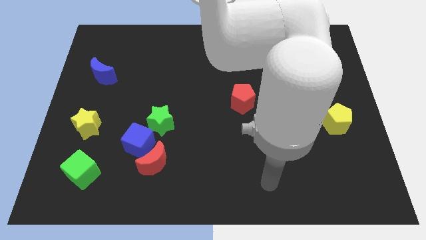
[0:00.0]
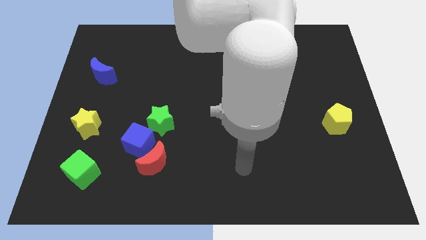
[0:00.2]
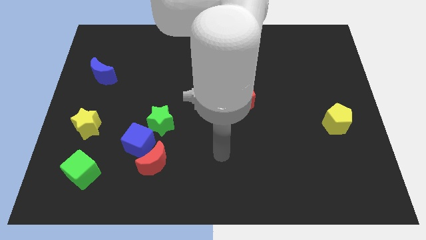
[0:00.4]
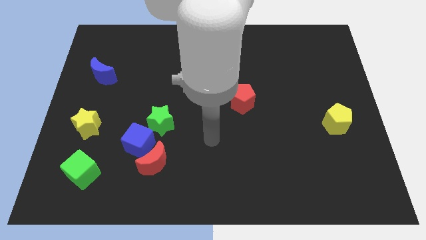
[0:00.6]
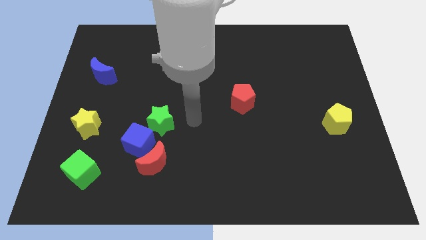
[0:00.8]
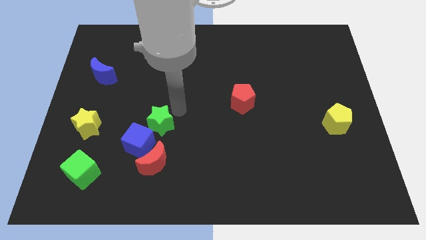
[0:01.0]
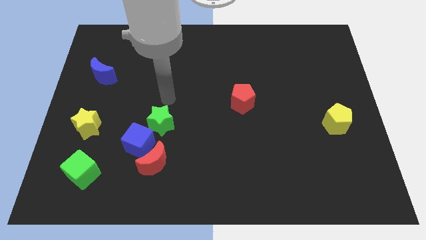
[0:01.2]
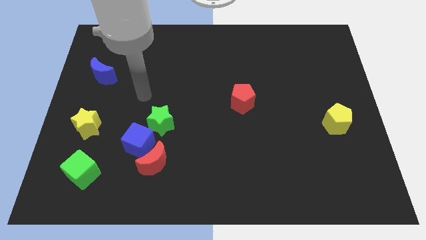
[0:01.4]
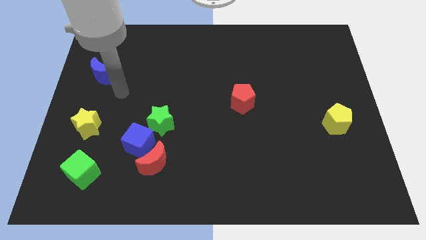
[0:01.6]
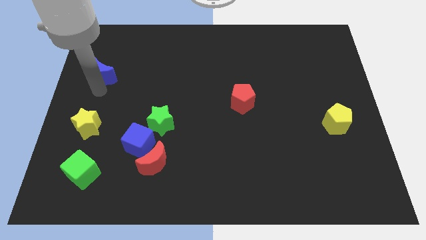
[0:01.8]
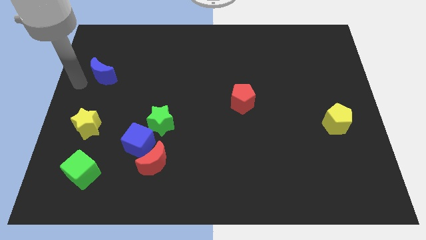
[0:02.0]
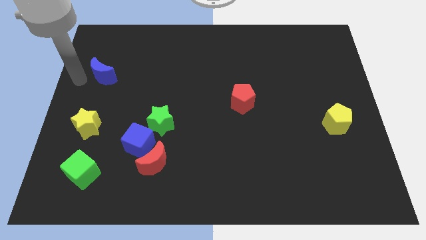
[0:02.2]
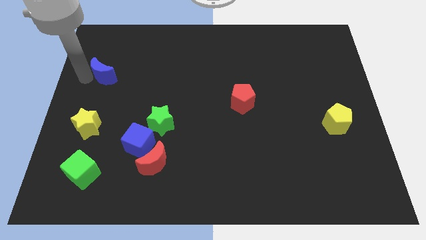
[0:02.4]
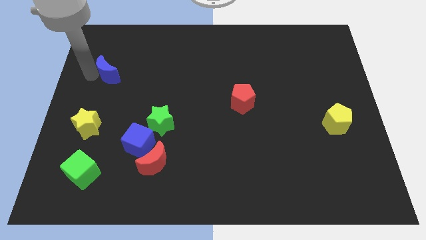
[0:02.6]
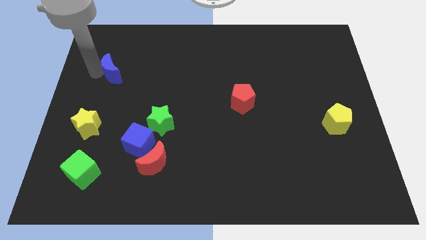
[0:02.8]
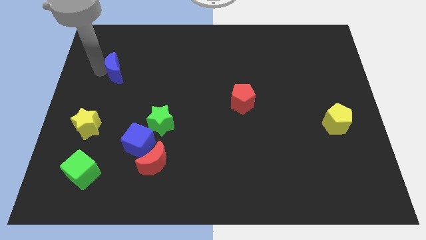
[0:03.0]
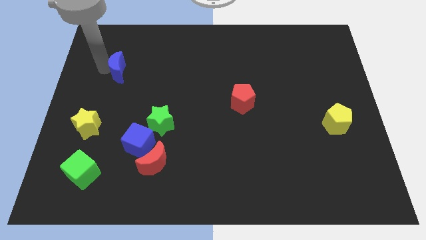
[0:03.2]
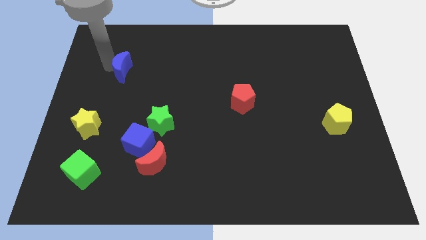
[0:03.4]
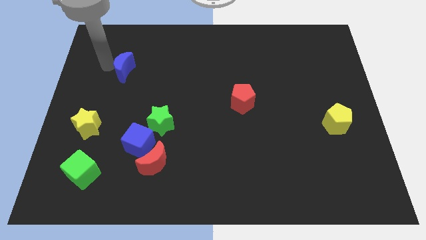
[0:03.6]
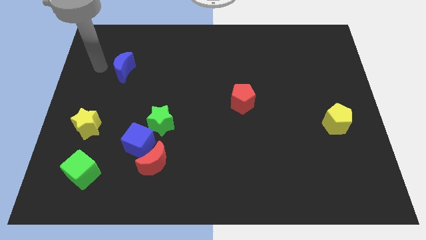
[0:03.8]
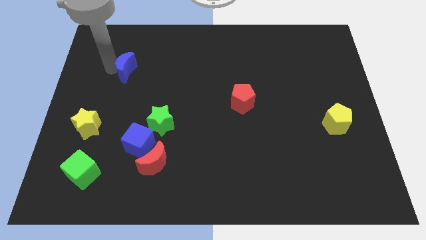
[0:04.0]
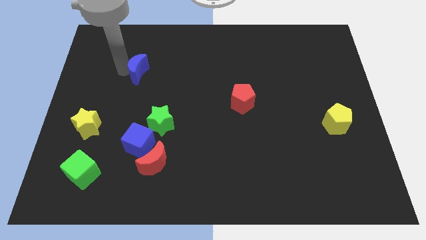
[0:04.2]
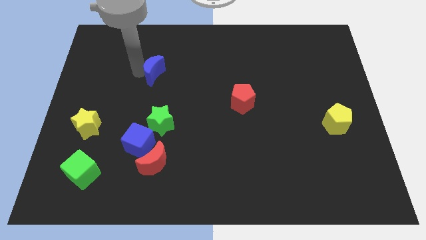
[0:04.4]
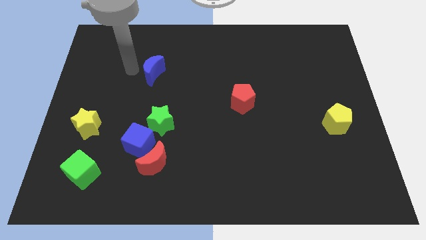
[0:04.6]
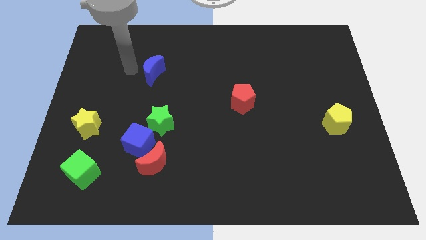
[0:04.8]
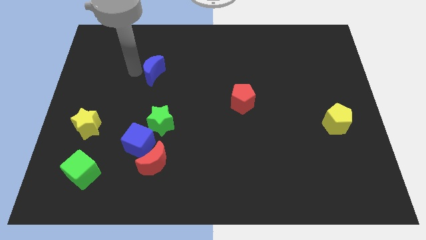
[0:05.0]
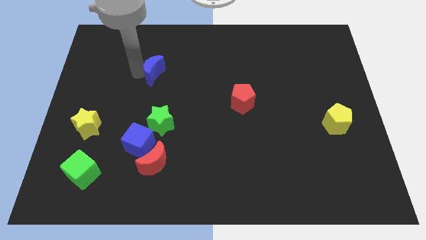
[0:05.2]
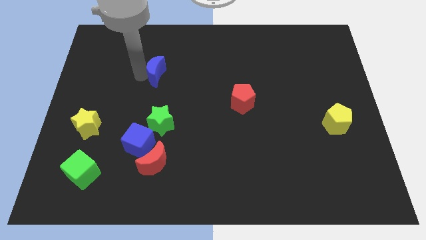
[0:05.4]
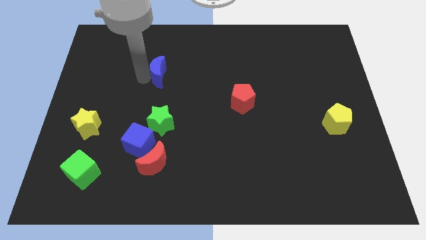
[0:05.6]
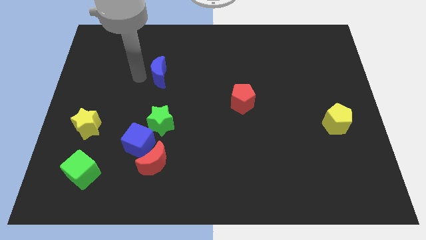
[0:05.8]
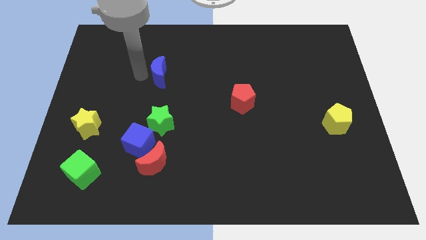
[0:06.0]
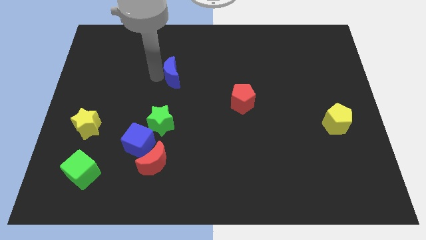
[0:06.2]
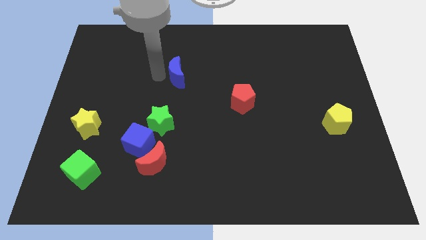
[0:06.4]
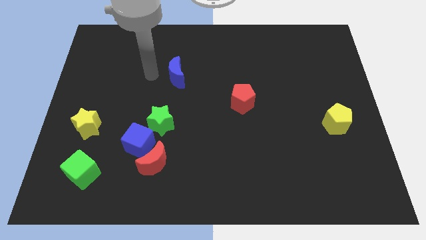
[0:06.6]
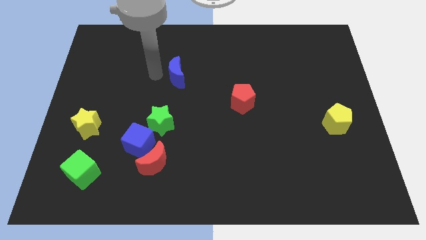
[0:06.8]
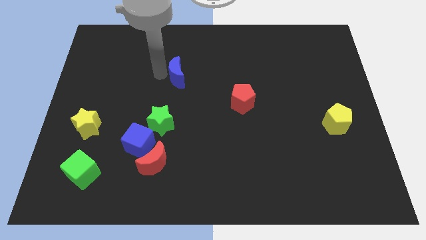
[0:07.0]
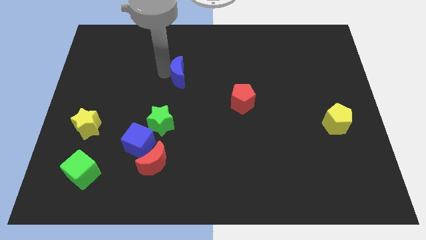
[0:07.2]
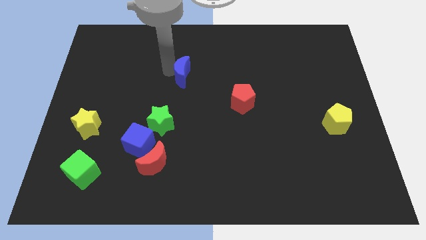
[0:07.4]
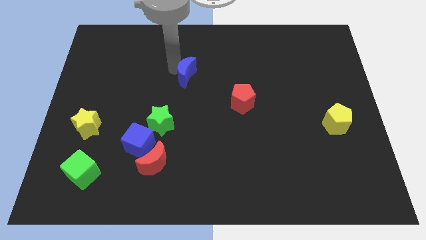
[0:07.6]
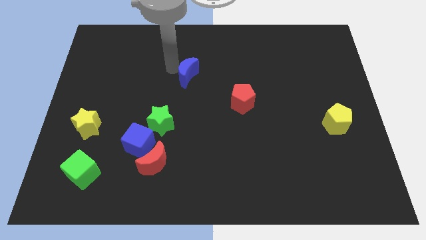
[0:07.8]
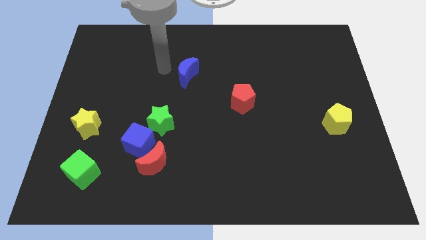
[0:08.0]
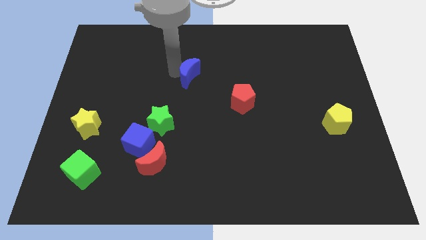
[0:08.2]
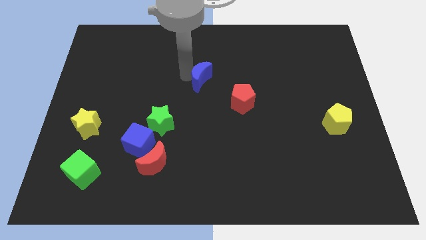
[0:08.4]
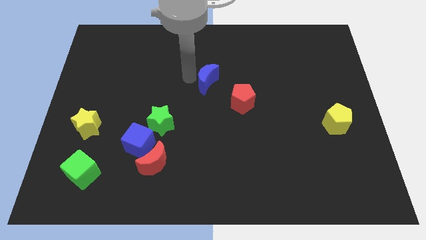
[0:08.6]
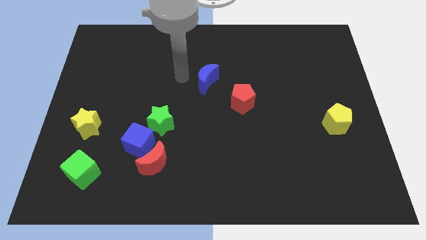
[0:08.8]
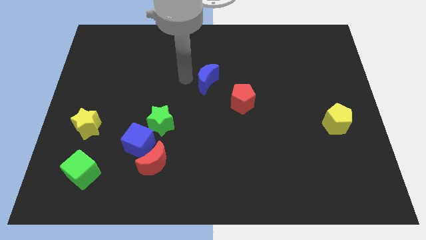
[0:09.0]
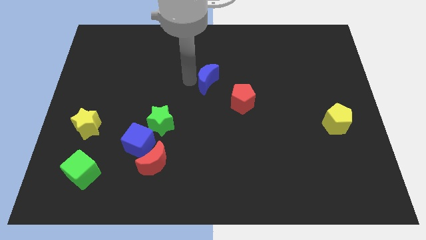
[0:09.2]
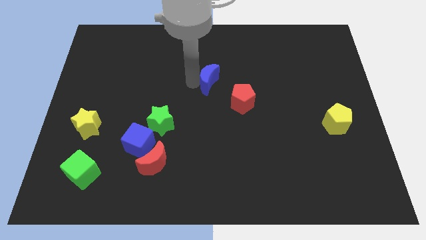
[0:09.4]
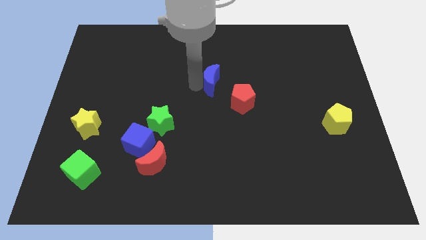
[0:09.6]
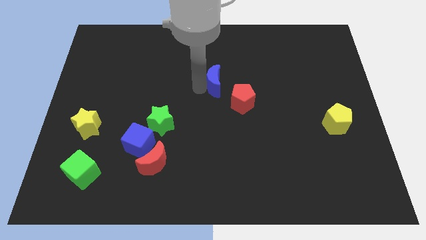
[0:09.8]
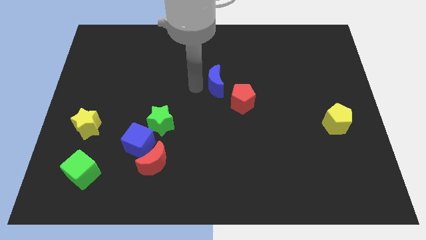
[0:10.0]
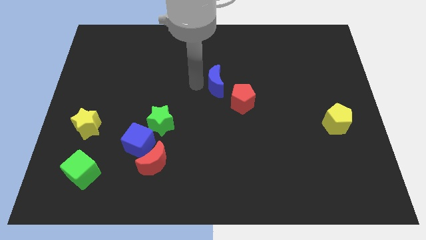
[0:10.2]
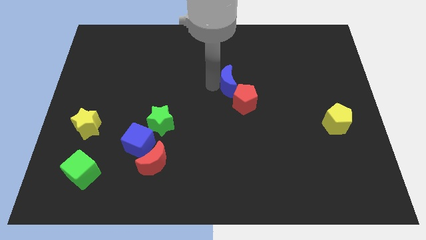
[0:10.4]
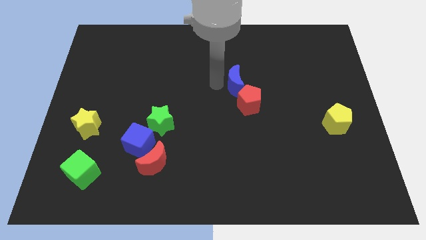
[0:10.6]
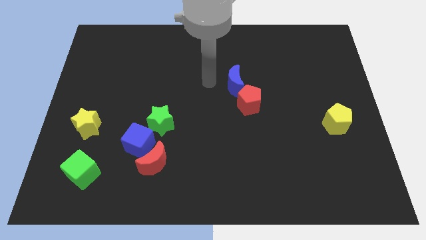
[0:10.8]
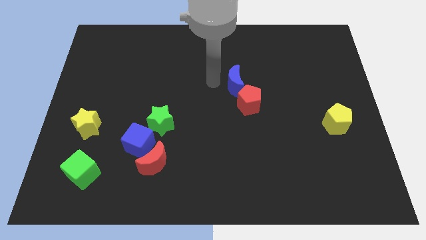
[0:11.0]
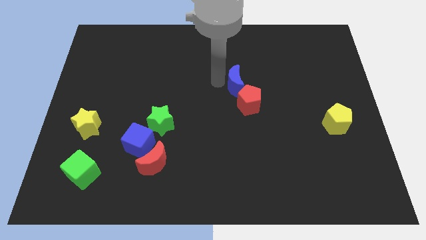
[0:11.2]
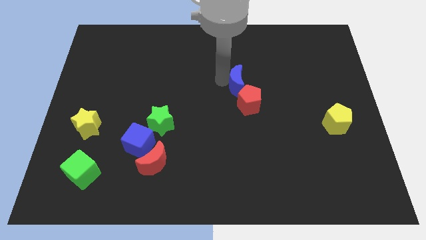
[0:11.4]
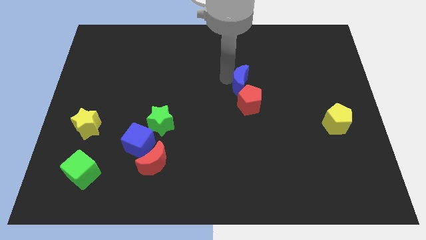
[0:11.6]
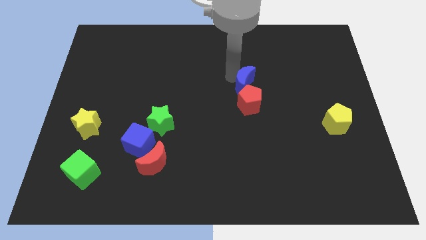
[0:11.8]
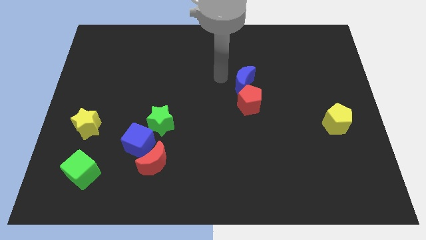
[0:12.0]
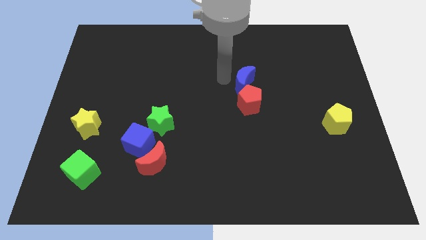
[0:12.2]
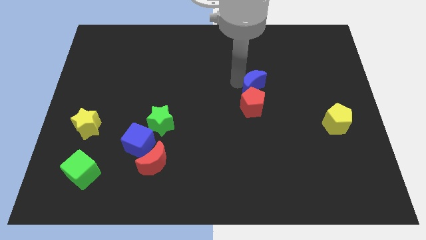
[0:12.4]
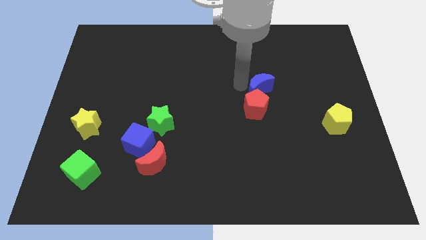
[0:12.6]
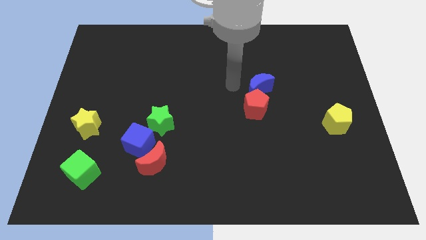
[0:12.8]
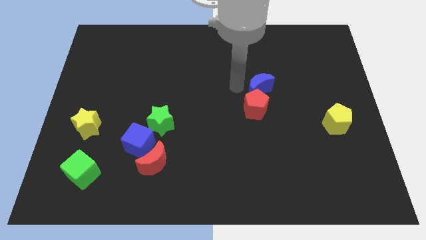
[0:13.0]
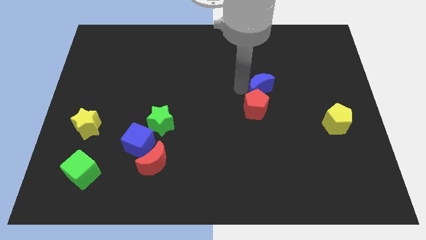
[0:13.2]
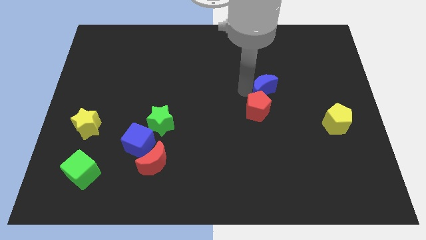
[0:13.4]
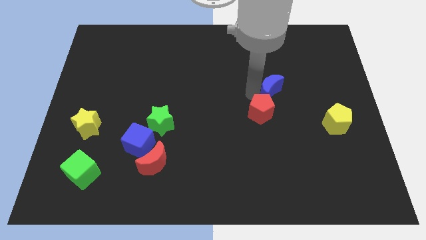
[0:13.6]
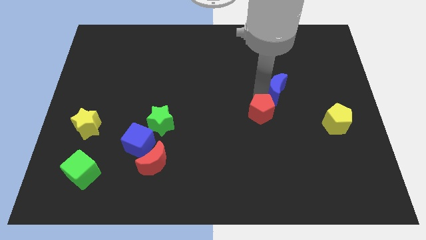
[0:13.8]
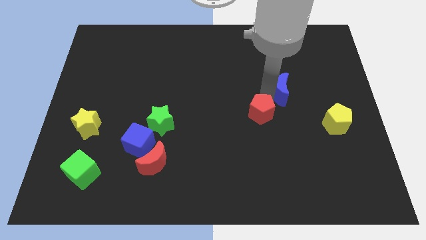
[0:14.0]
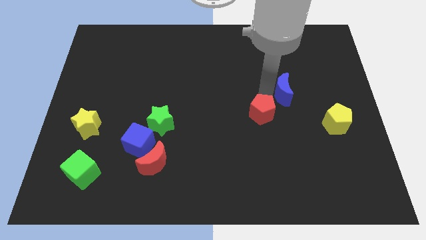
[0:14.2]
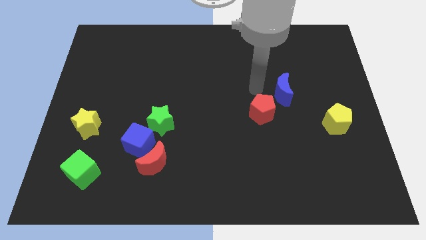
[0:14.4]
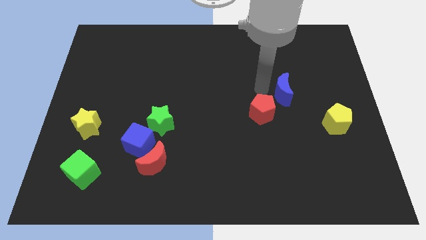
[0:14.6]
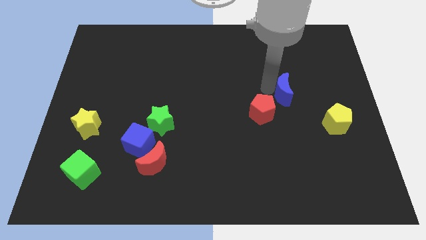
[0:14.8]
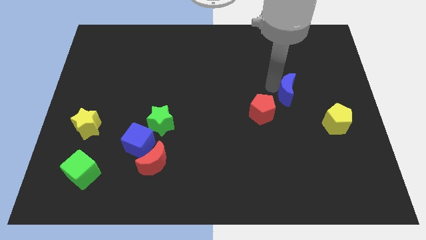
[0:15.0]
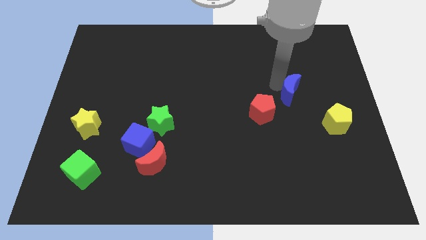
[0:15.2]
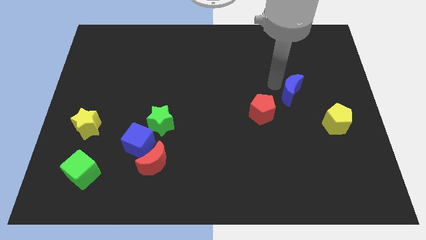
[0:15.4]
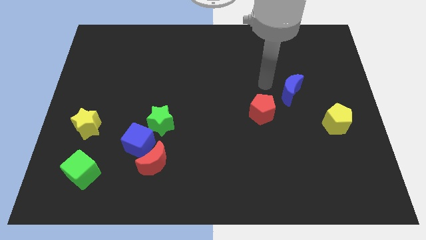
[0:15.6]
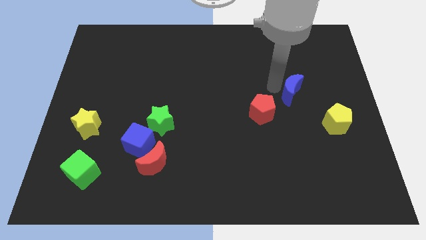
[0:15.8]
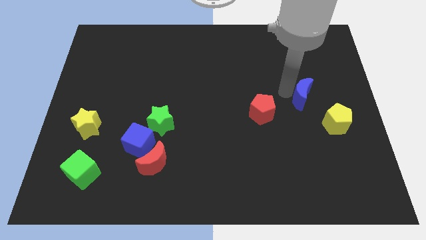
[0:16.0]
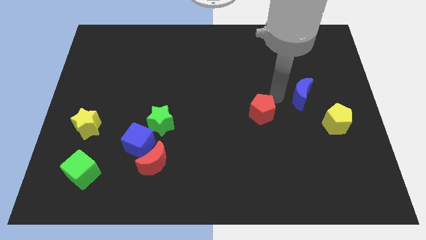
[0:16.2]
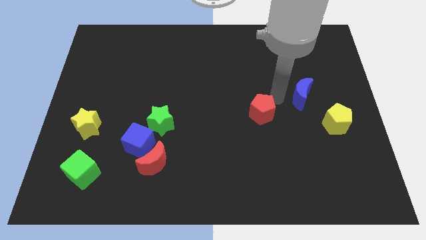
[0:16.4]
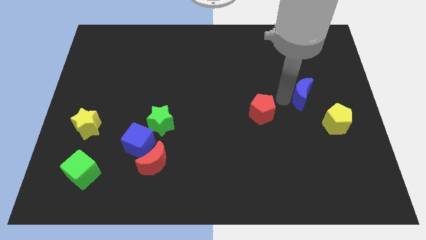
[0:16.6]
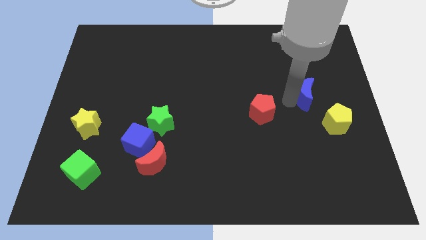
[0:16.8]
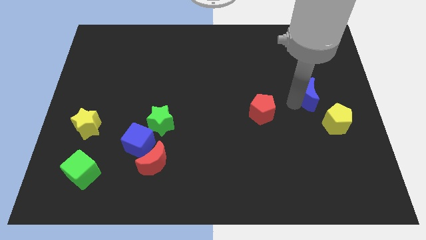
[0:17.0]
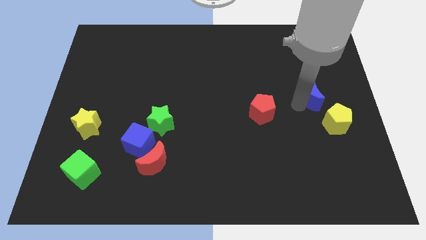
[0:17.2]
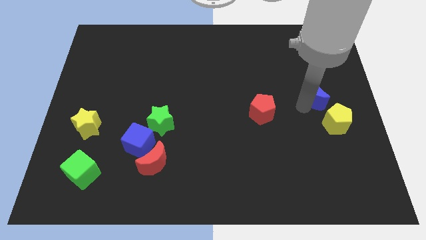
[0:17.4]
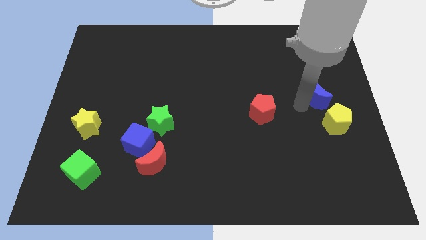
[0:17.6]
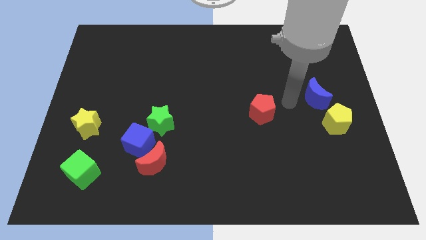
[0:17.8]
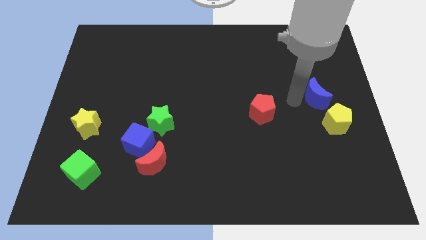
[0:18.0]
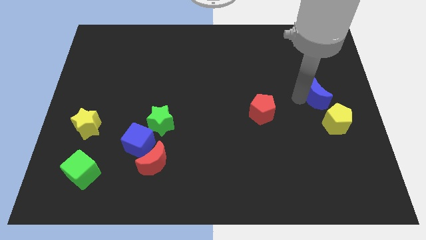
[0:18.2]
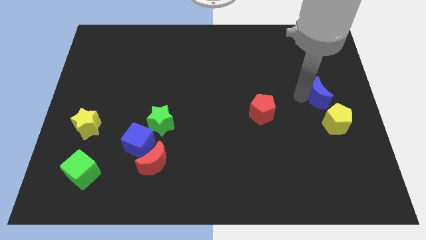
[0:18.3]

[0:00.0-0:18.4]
push the blue moon to the right side
